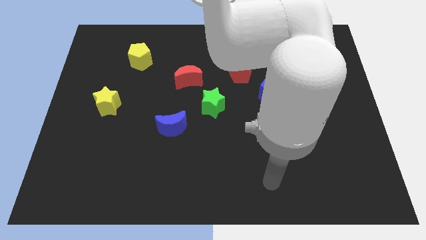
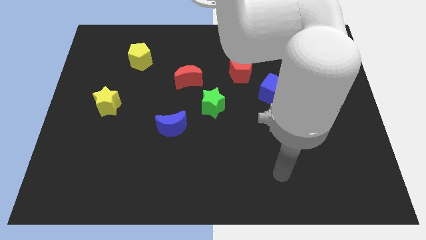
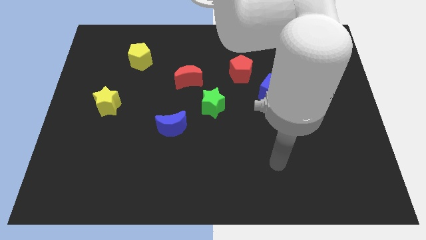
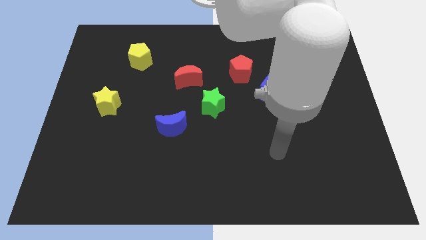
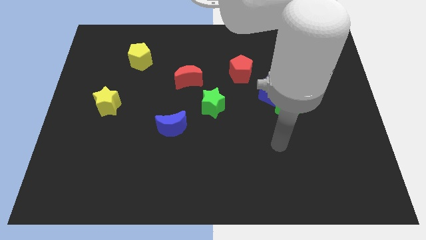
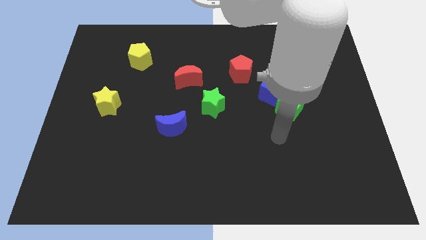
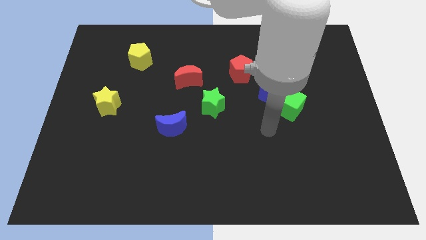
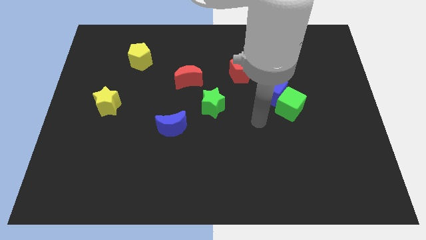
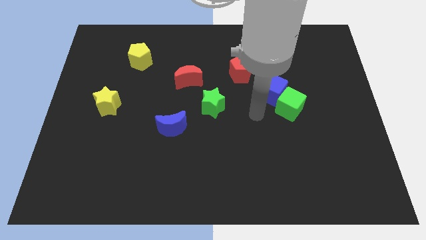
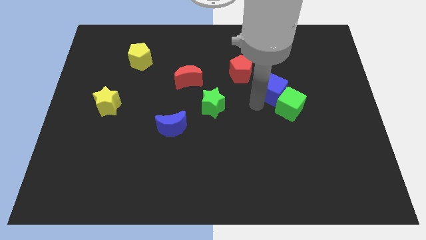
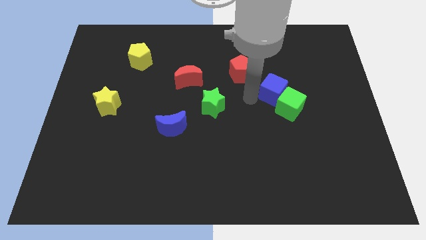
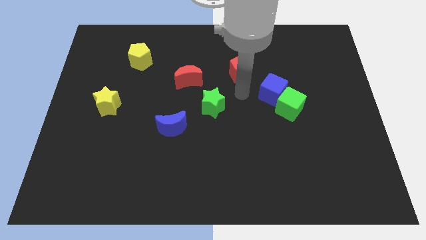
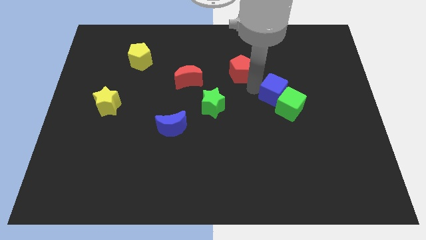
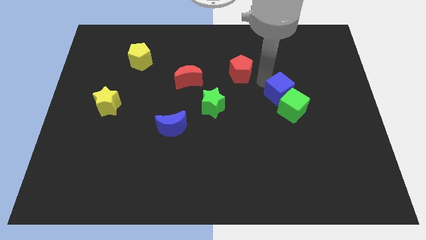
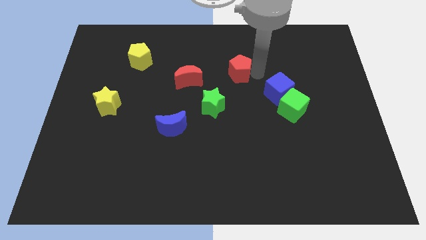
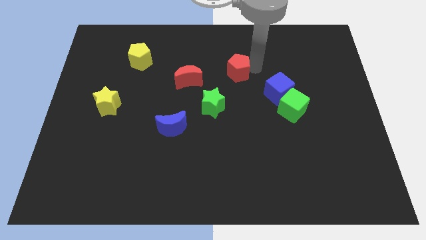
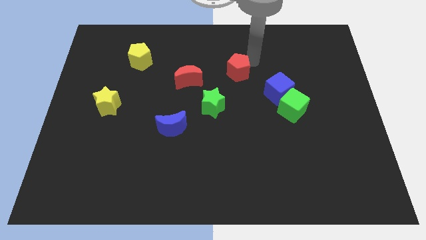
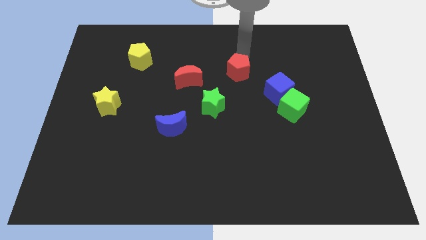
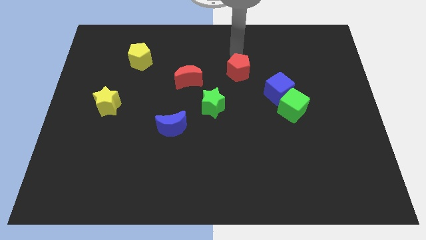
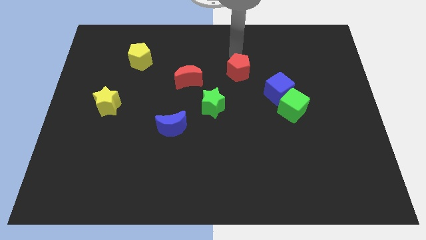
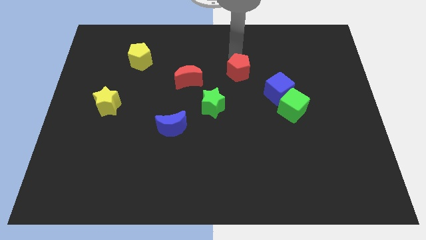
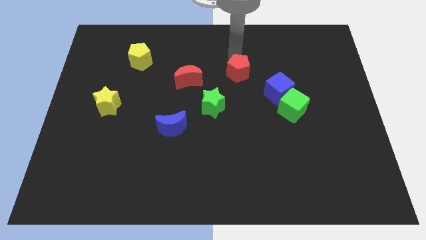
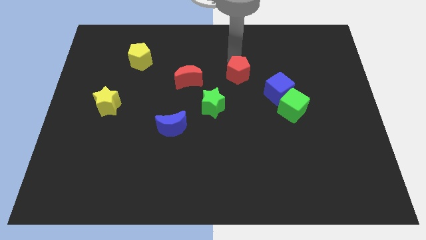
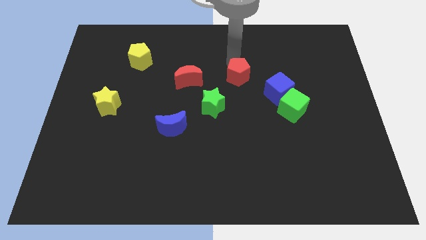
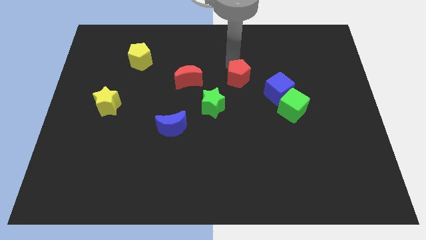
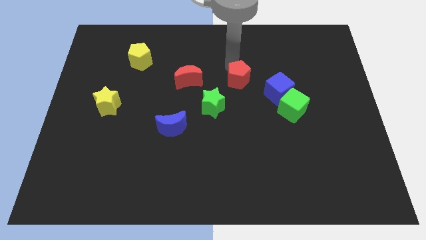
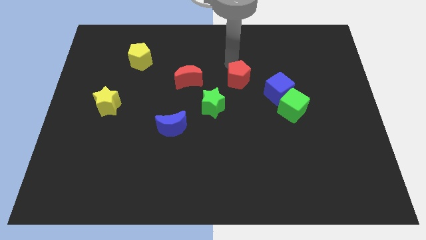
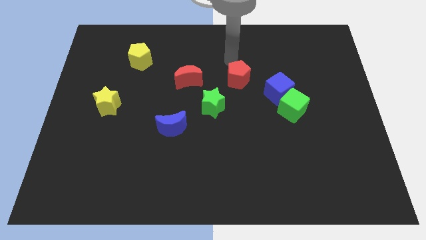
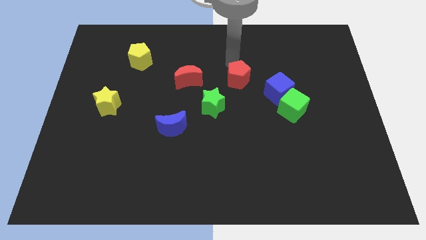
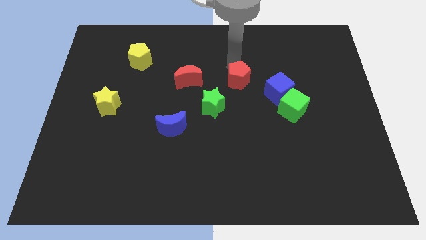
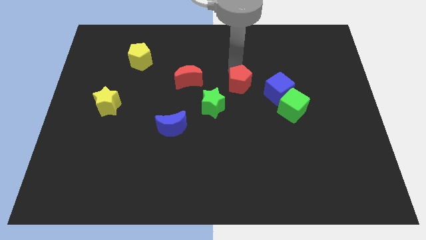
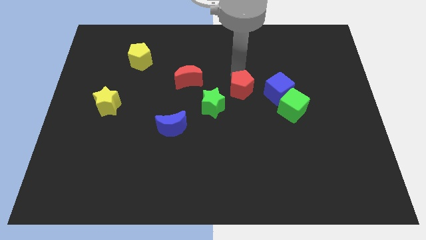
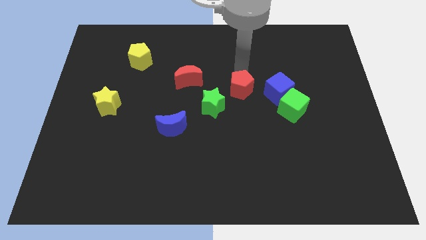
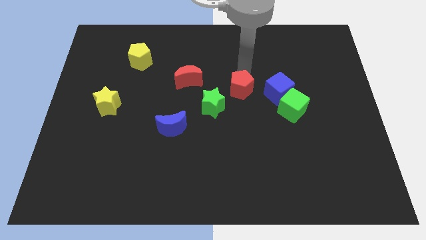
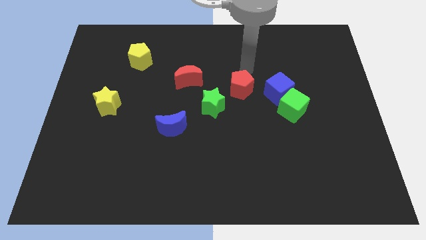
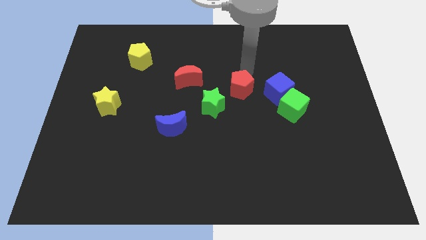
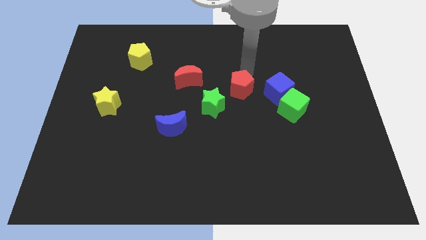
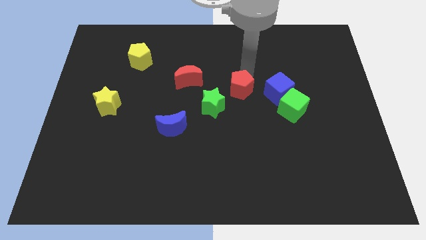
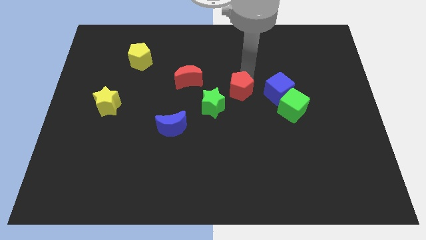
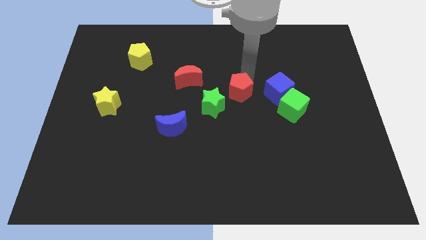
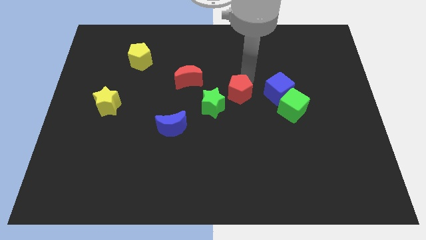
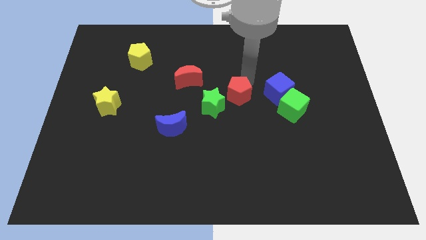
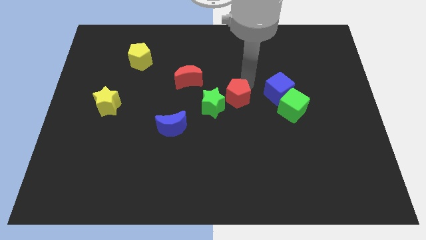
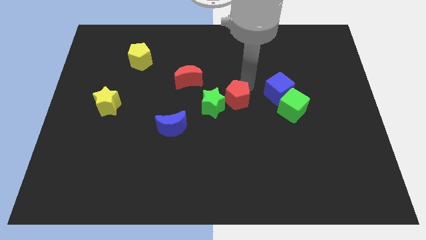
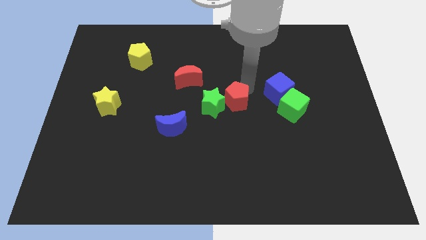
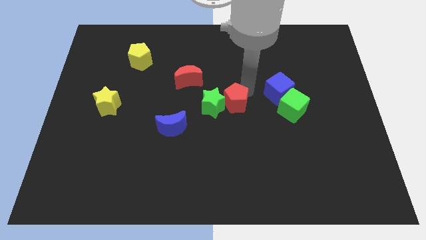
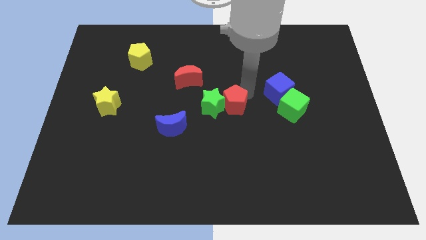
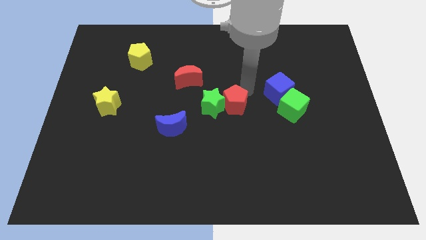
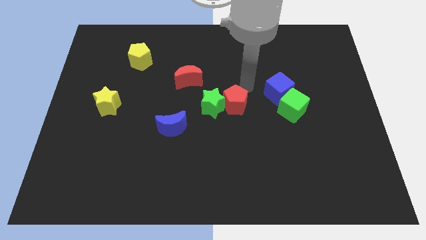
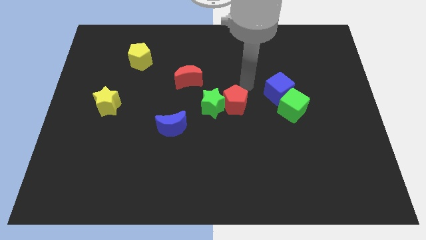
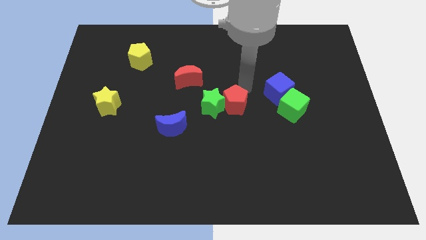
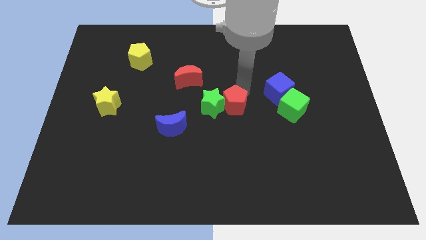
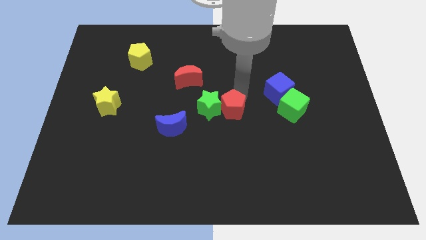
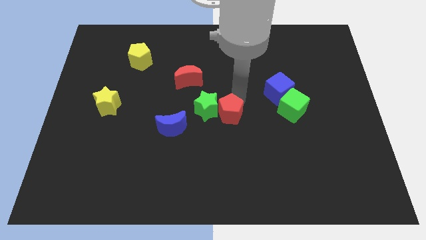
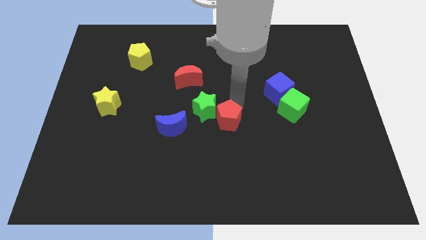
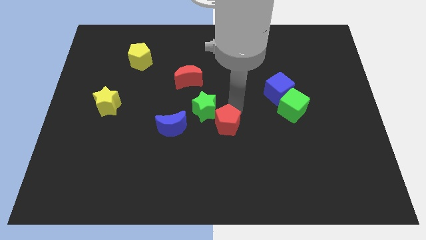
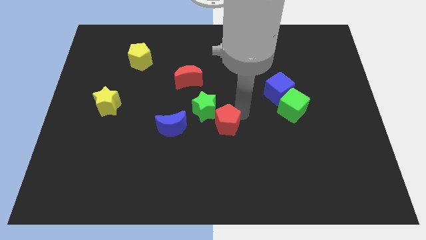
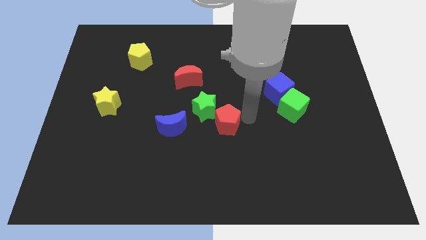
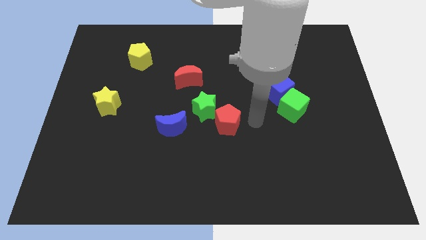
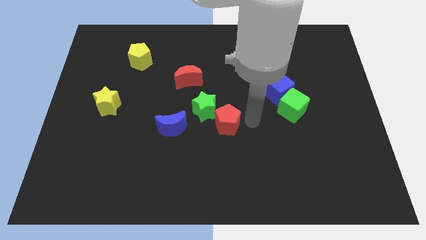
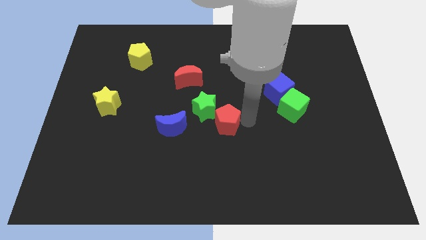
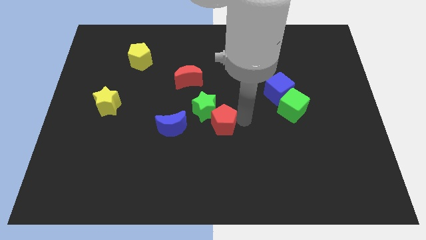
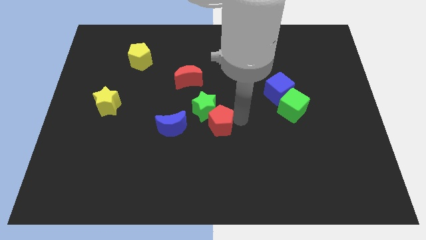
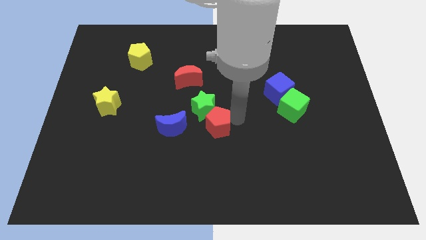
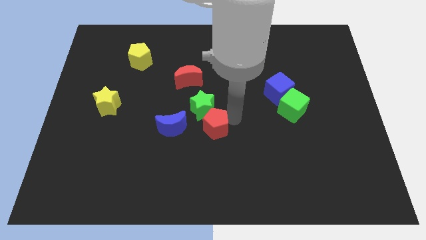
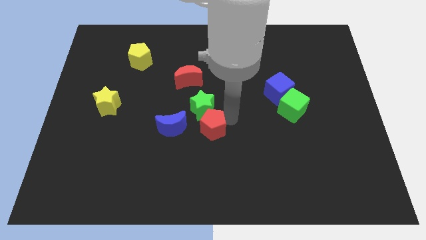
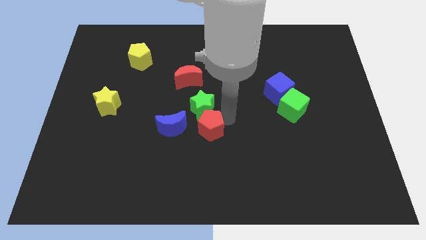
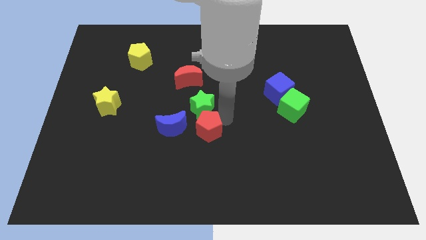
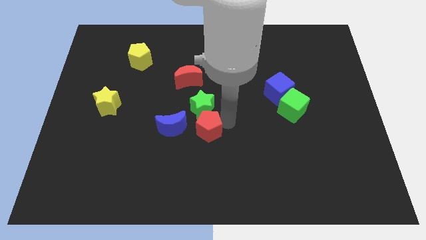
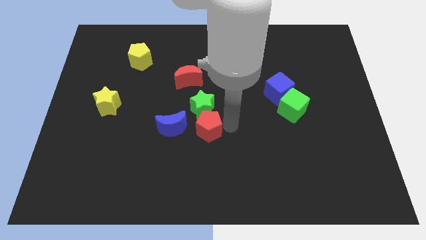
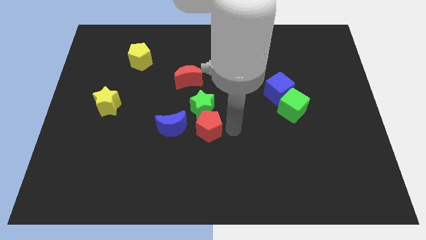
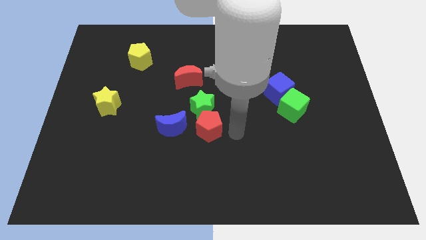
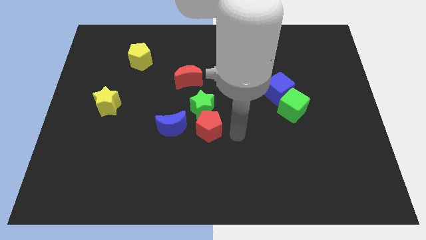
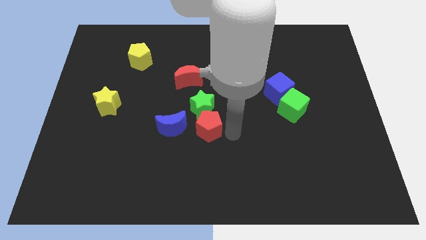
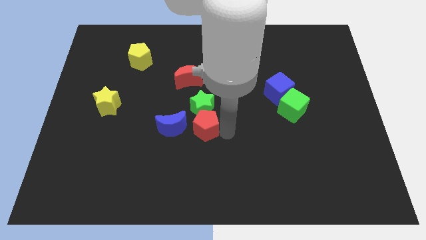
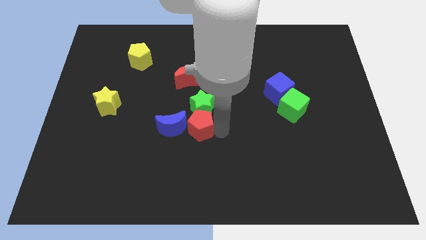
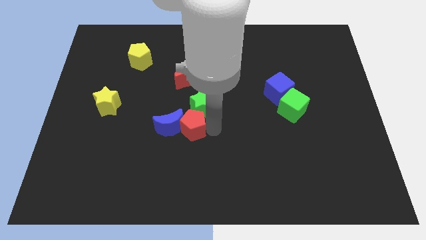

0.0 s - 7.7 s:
move the red pentagon to the blue moon
